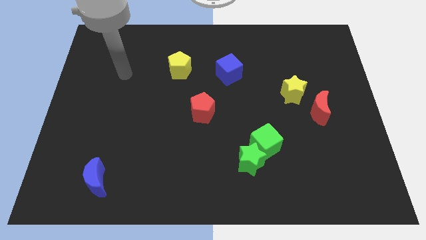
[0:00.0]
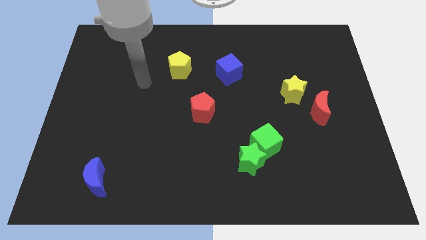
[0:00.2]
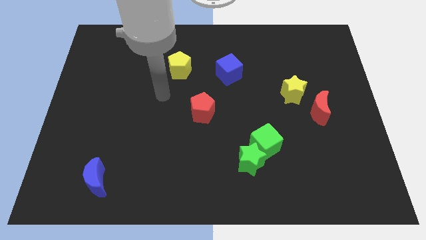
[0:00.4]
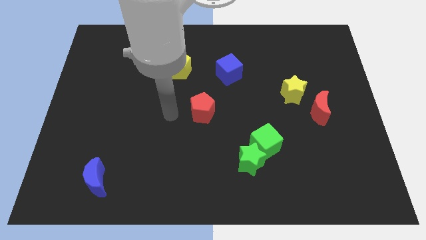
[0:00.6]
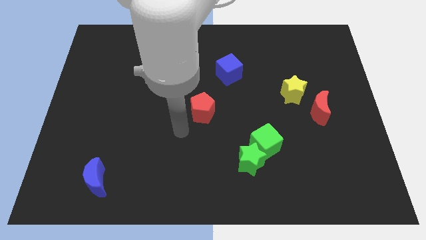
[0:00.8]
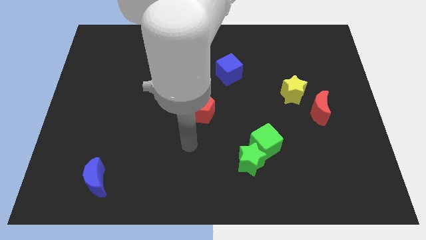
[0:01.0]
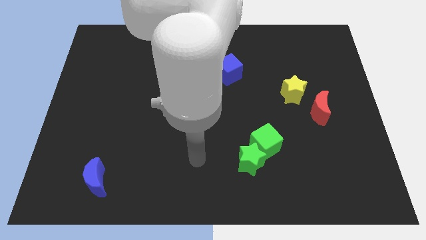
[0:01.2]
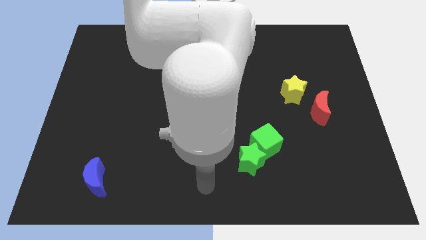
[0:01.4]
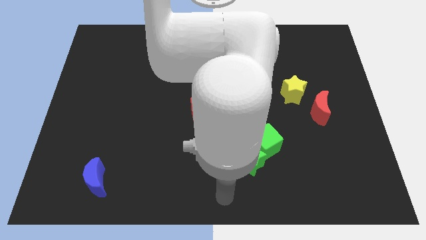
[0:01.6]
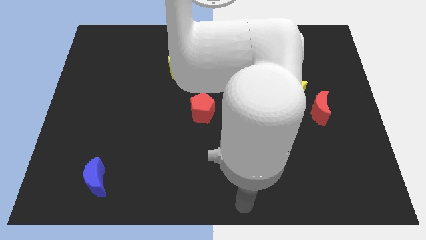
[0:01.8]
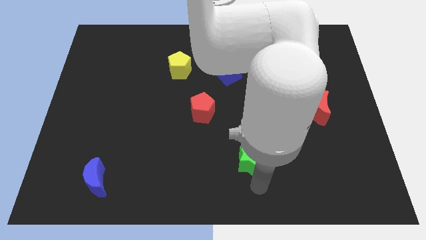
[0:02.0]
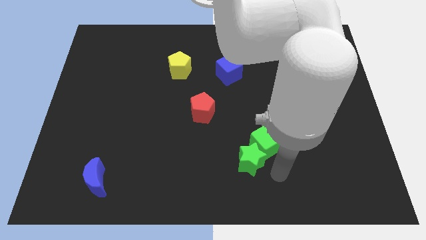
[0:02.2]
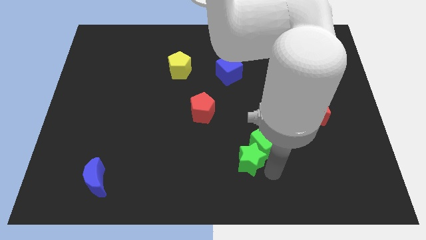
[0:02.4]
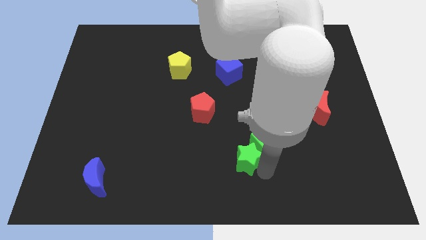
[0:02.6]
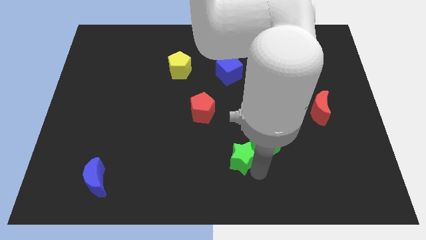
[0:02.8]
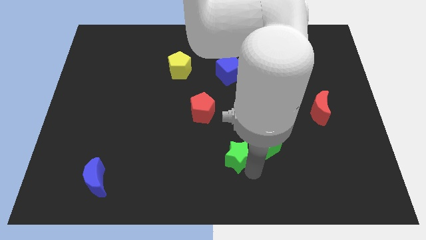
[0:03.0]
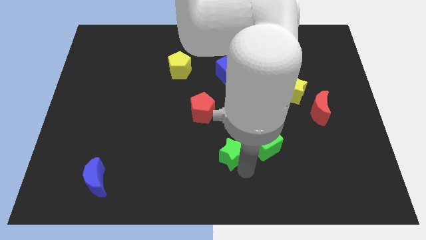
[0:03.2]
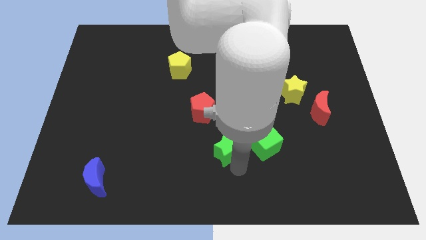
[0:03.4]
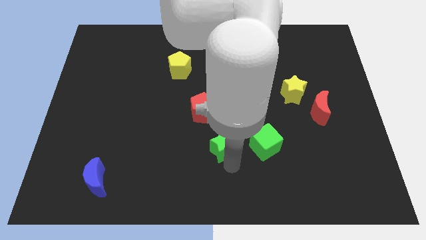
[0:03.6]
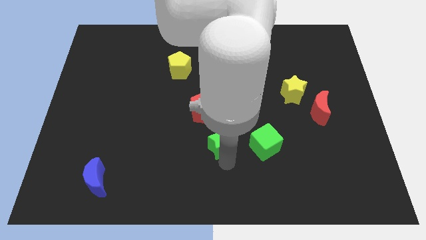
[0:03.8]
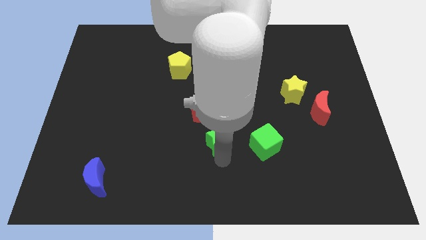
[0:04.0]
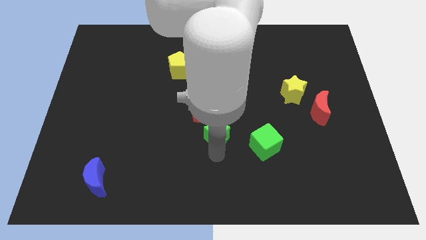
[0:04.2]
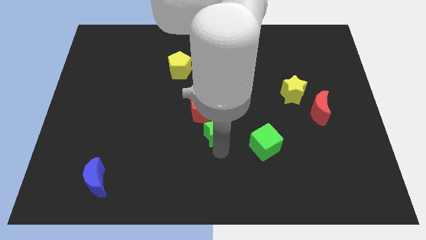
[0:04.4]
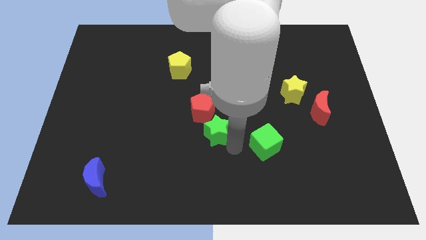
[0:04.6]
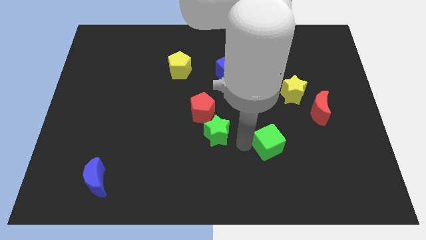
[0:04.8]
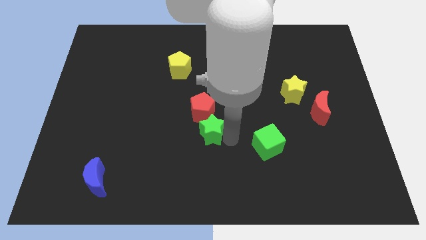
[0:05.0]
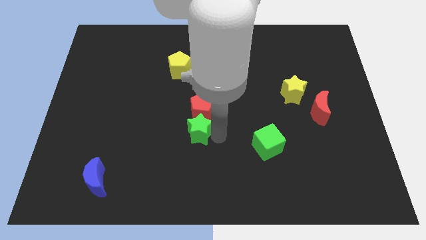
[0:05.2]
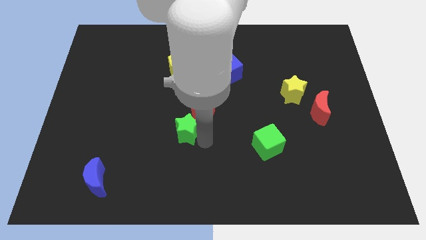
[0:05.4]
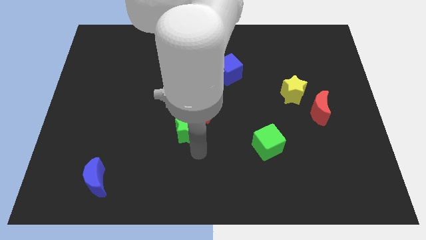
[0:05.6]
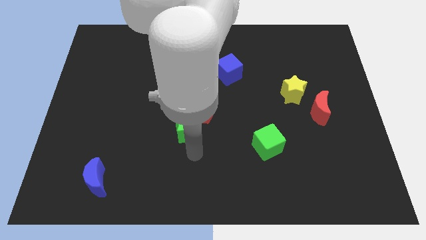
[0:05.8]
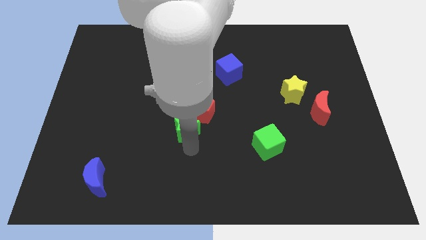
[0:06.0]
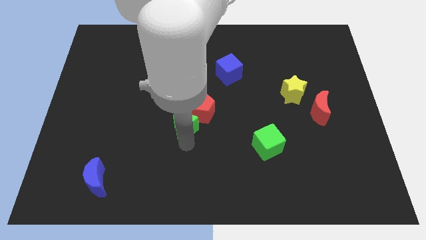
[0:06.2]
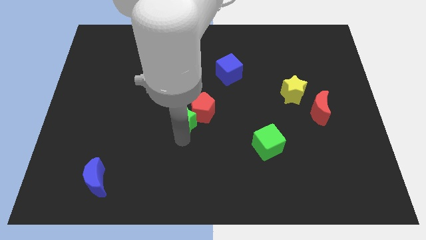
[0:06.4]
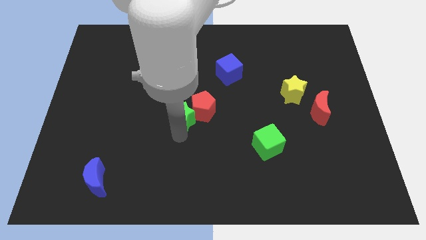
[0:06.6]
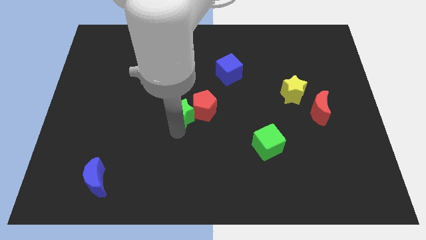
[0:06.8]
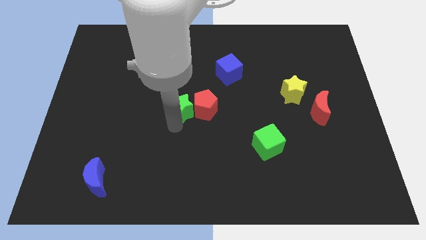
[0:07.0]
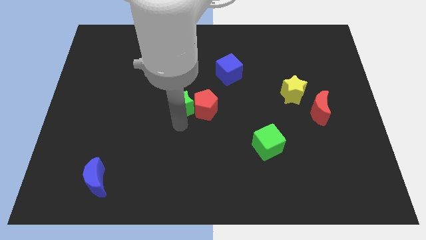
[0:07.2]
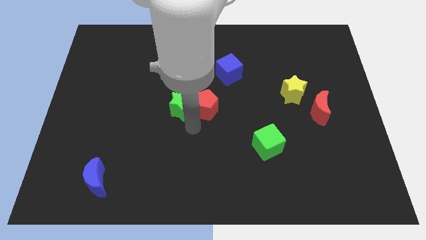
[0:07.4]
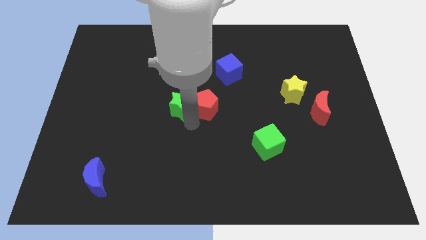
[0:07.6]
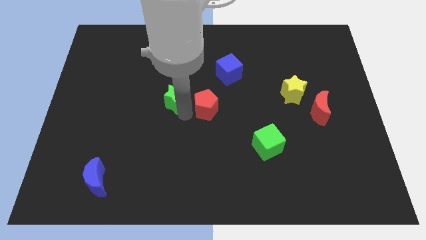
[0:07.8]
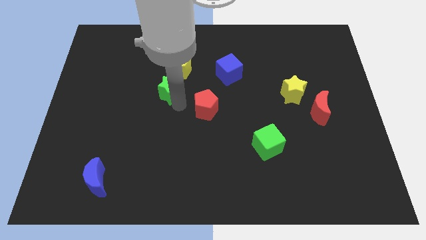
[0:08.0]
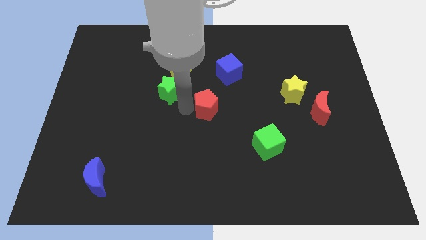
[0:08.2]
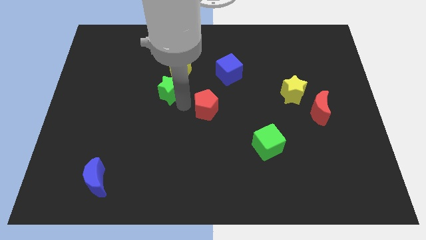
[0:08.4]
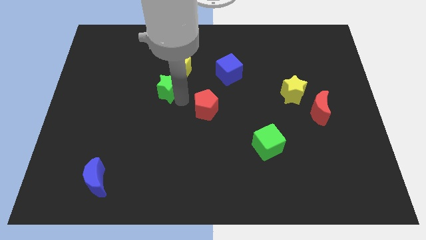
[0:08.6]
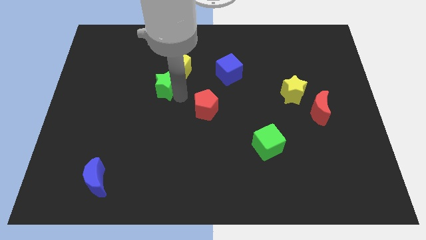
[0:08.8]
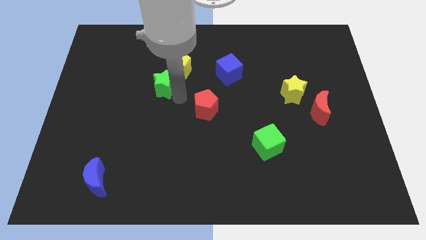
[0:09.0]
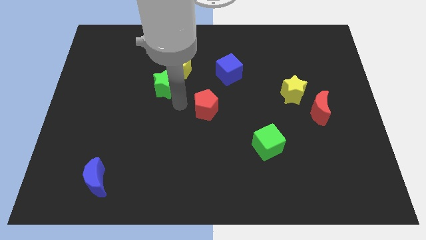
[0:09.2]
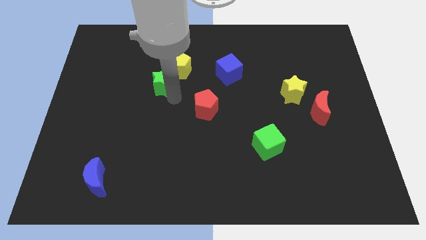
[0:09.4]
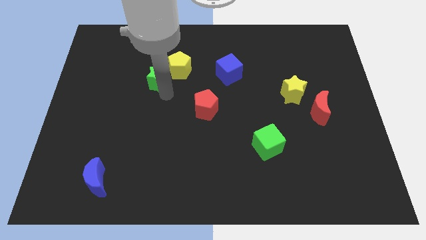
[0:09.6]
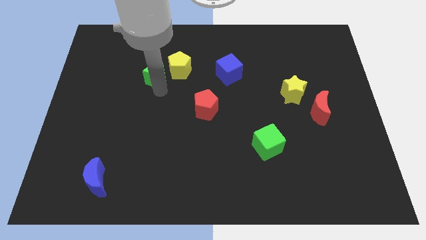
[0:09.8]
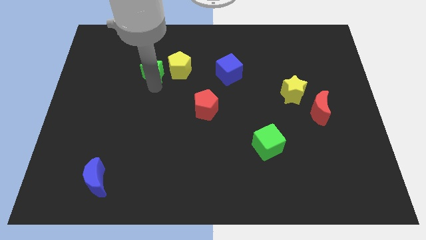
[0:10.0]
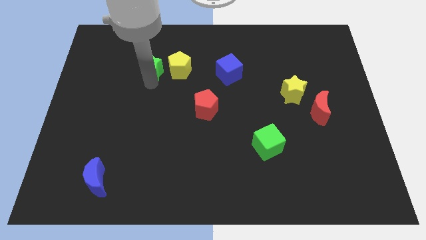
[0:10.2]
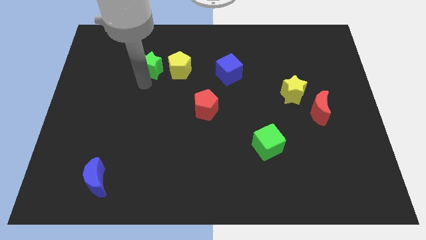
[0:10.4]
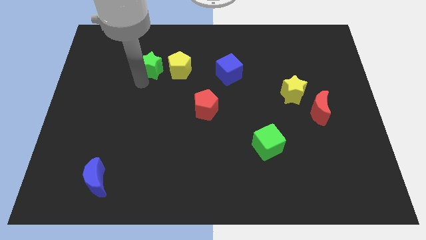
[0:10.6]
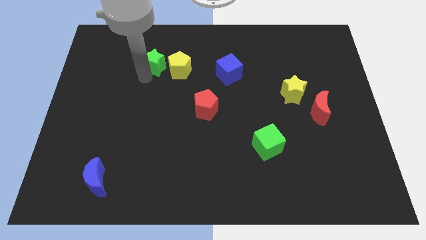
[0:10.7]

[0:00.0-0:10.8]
slide the green star to the top left side of the yellow pentagon

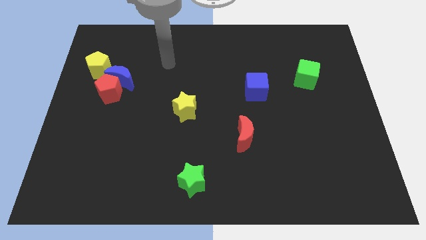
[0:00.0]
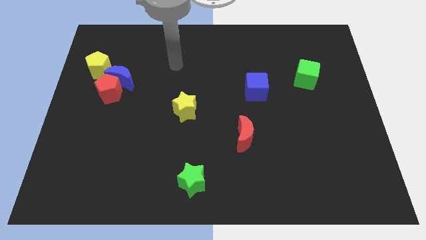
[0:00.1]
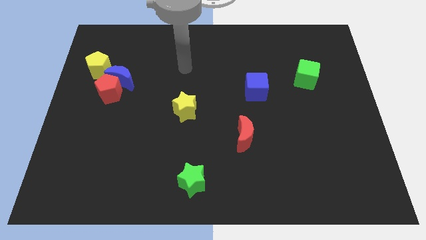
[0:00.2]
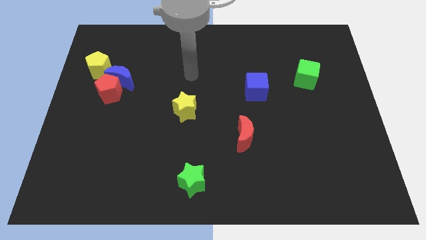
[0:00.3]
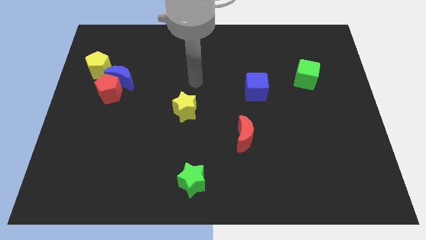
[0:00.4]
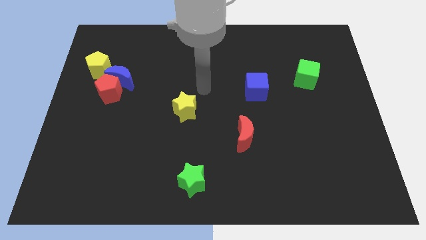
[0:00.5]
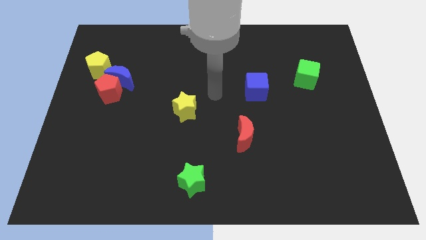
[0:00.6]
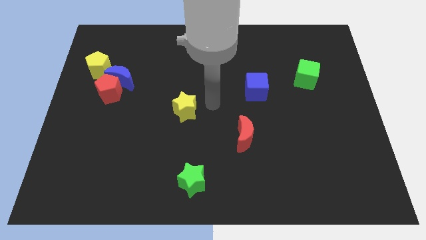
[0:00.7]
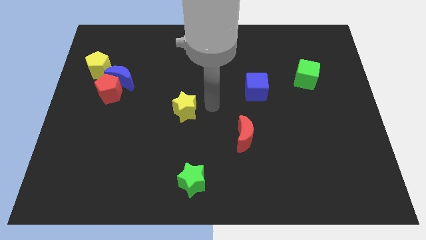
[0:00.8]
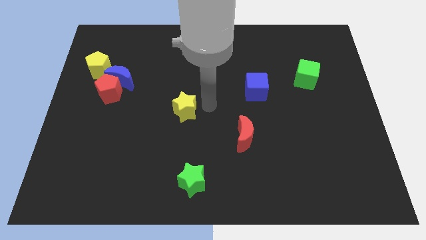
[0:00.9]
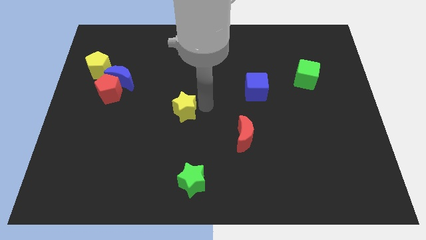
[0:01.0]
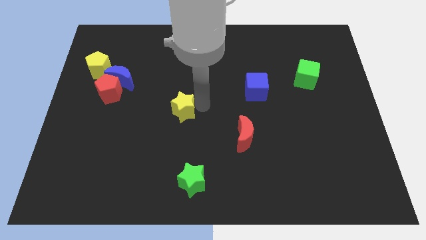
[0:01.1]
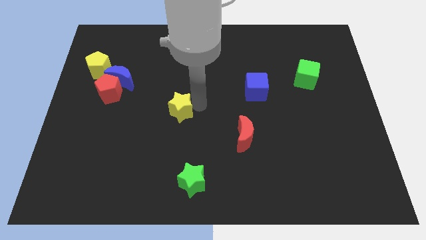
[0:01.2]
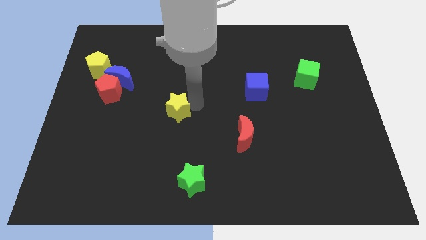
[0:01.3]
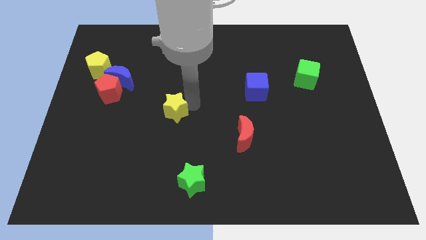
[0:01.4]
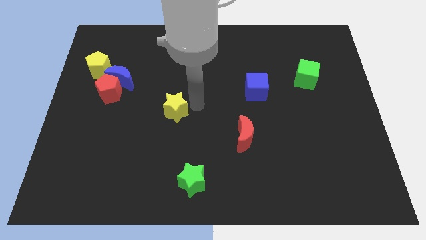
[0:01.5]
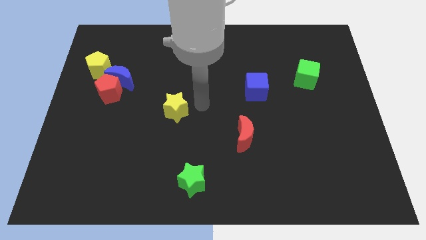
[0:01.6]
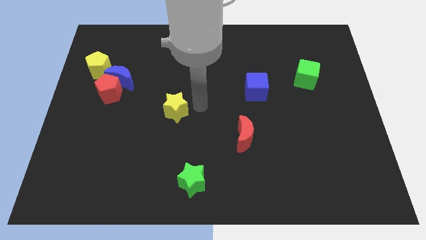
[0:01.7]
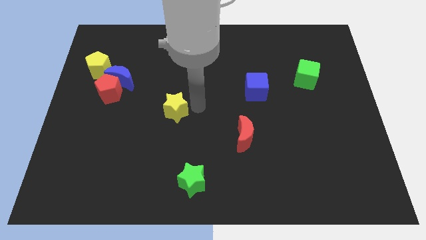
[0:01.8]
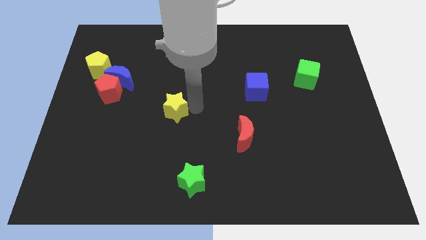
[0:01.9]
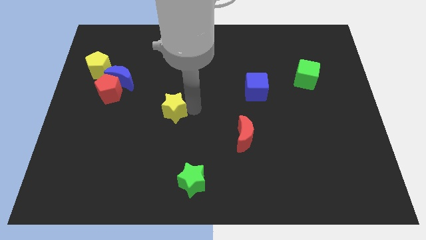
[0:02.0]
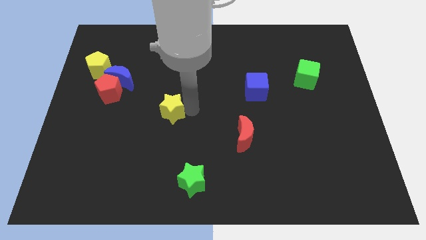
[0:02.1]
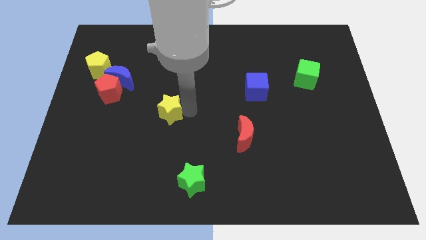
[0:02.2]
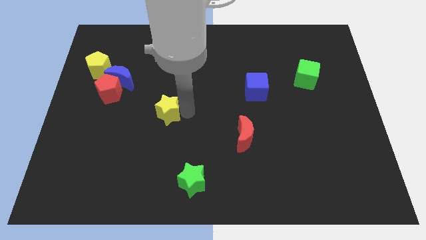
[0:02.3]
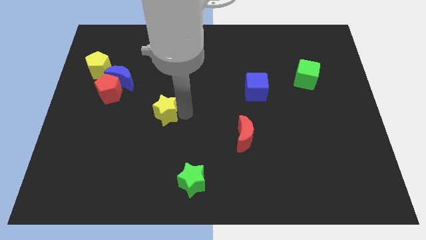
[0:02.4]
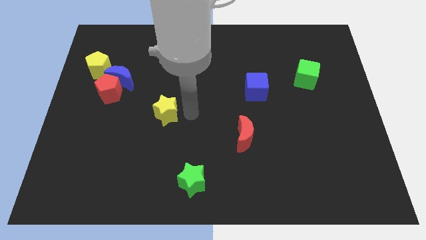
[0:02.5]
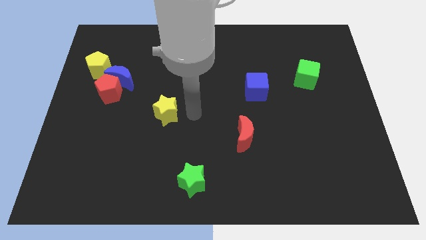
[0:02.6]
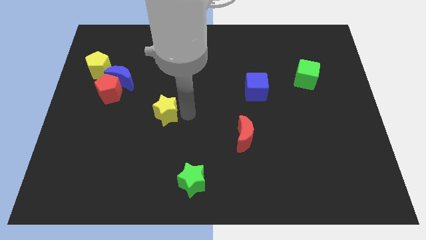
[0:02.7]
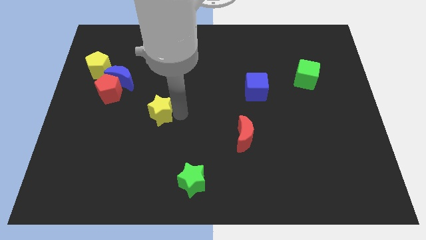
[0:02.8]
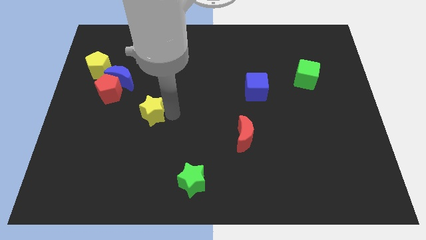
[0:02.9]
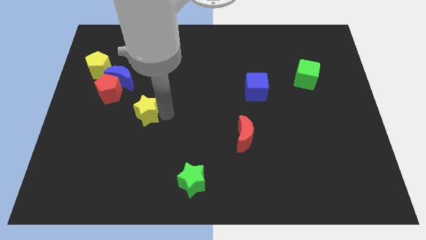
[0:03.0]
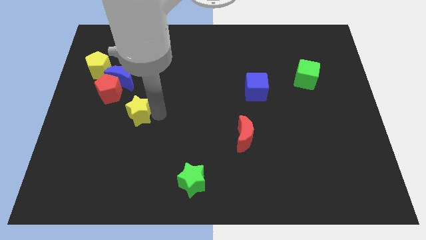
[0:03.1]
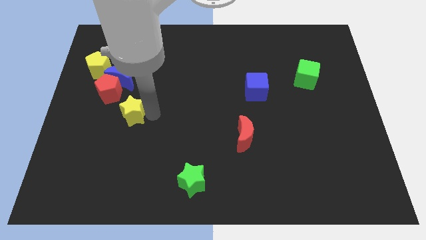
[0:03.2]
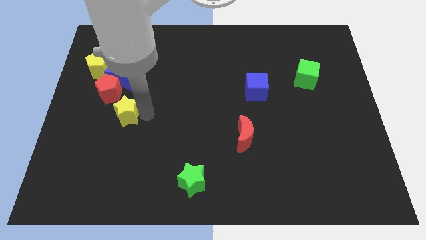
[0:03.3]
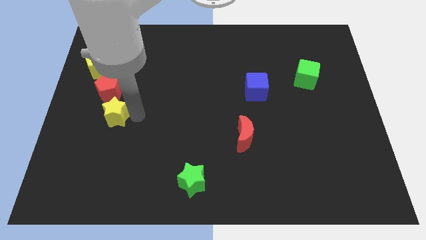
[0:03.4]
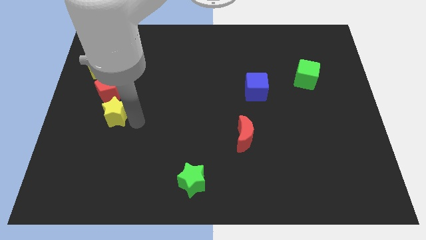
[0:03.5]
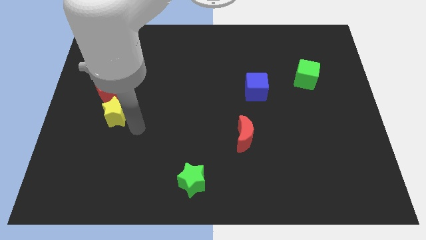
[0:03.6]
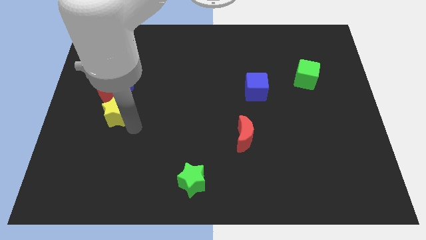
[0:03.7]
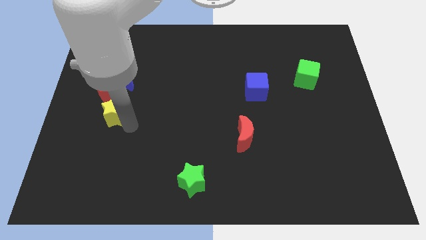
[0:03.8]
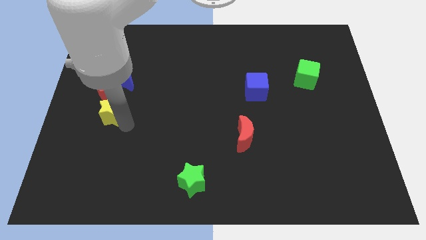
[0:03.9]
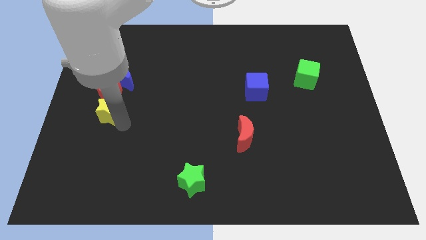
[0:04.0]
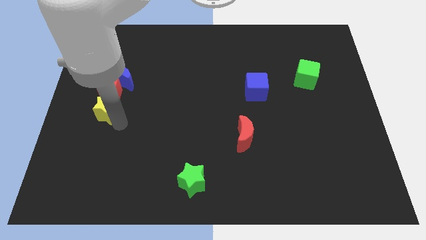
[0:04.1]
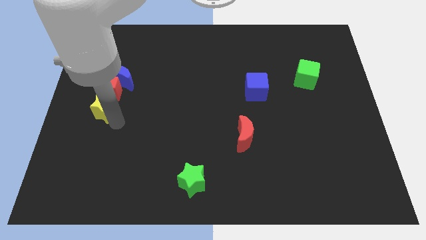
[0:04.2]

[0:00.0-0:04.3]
move the yellow star to the bottom side of the yellow pentagon
